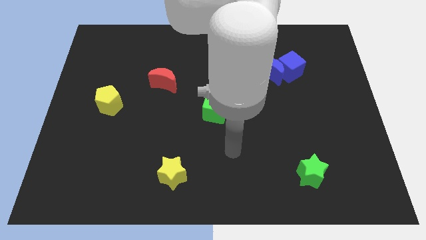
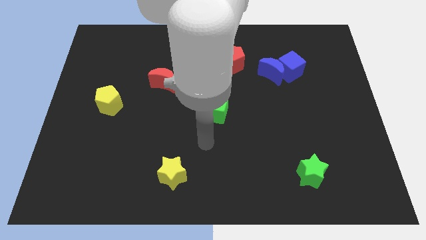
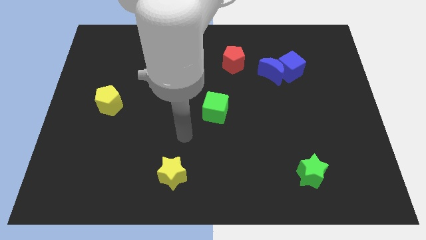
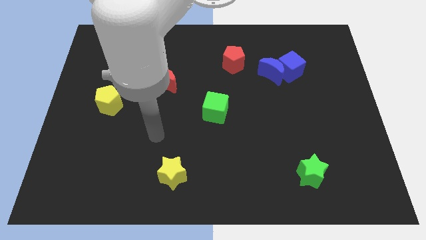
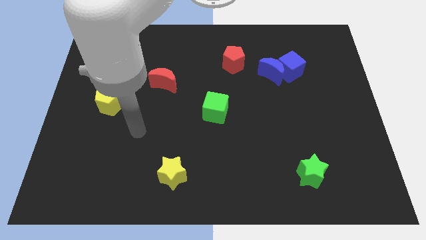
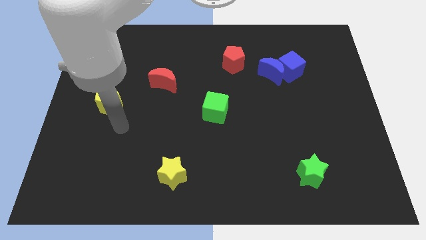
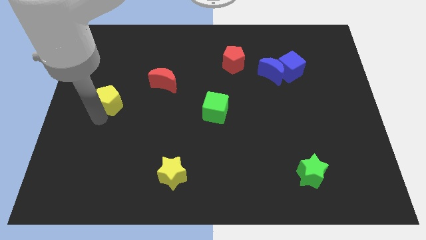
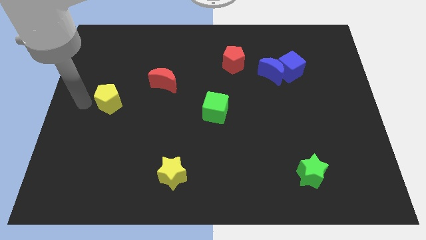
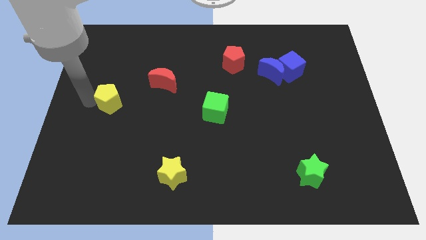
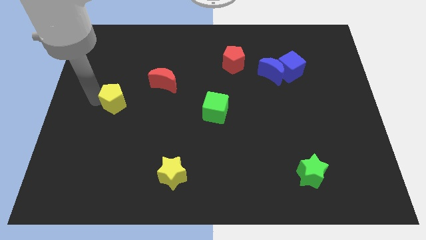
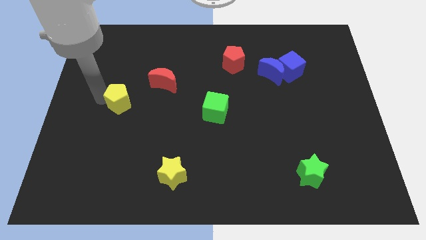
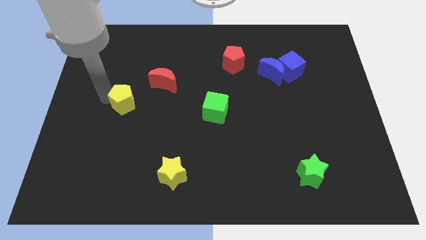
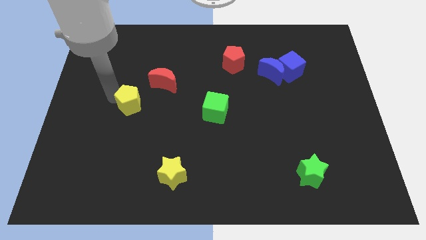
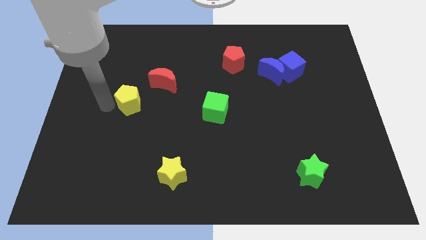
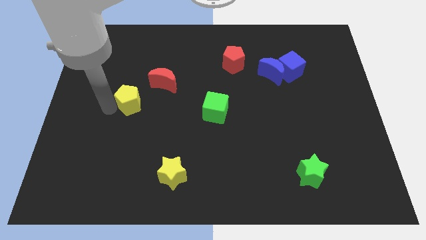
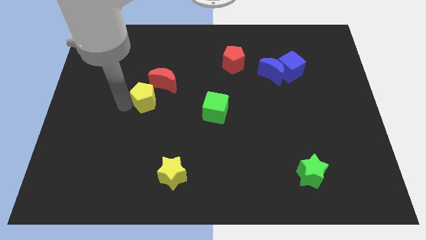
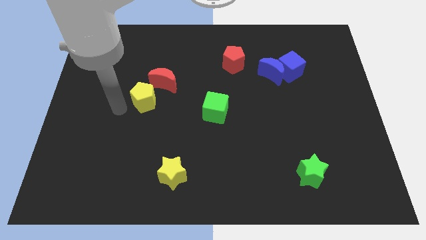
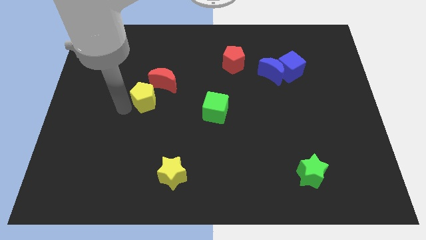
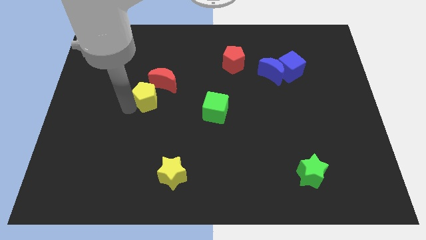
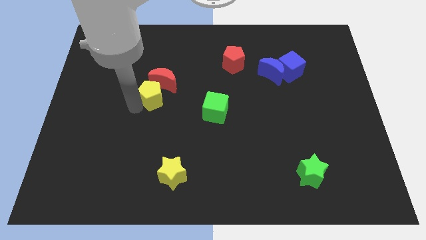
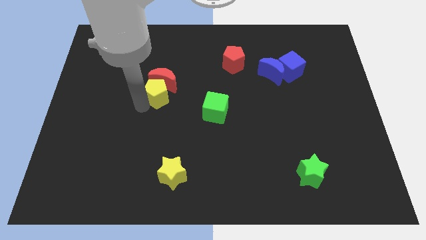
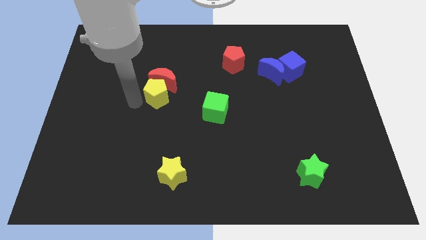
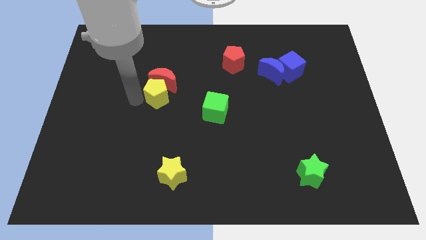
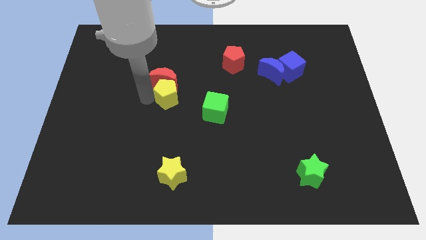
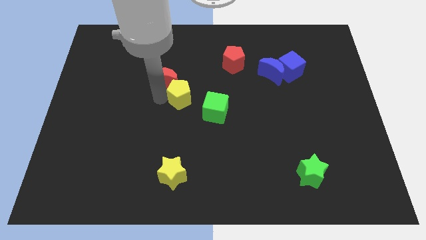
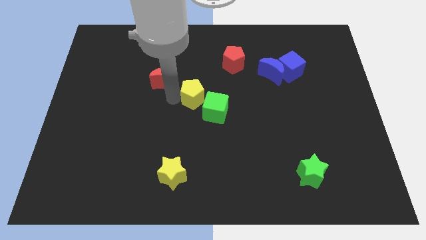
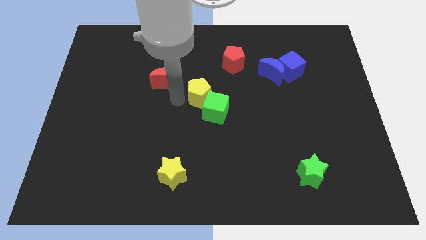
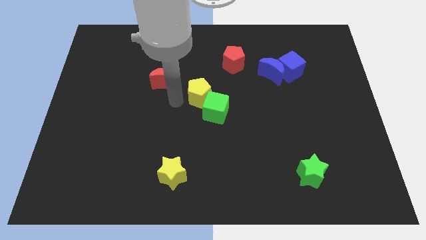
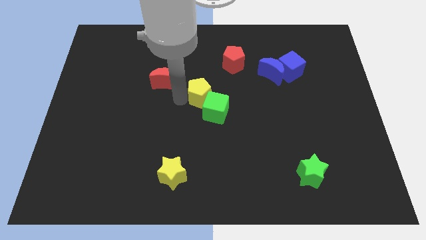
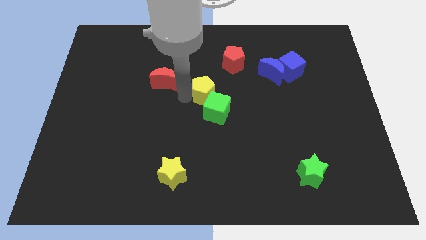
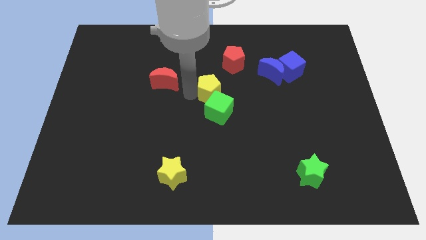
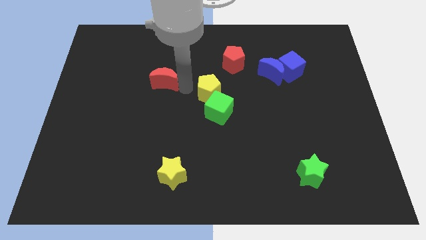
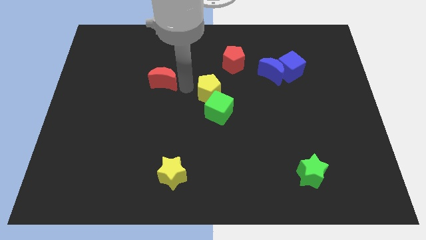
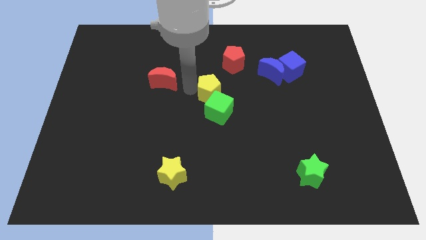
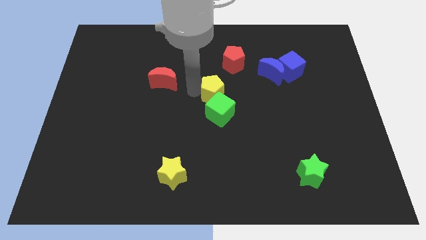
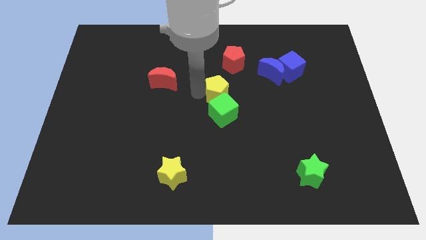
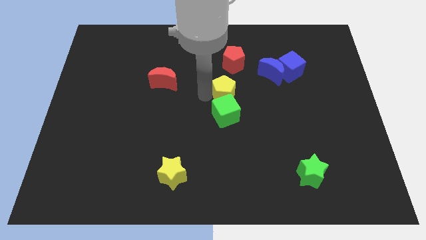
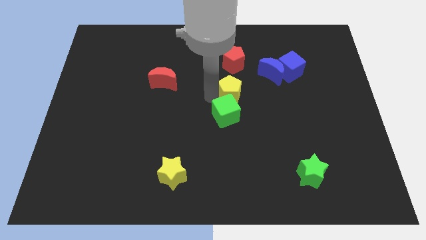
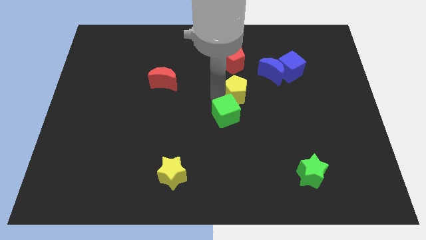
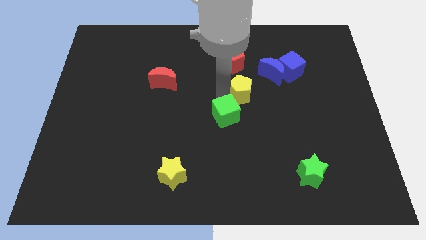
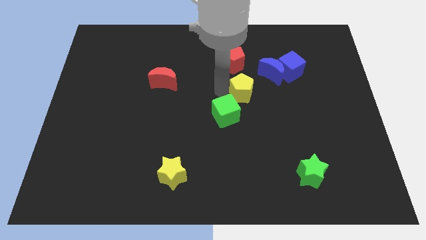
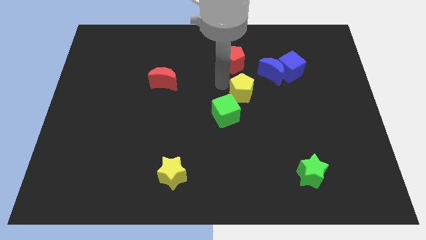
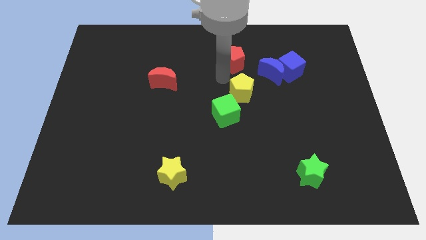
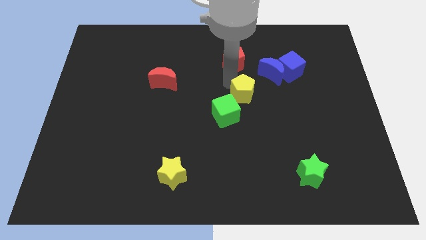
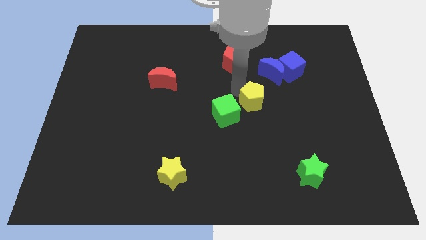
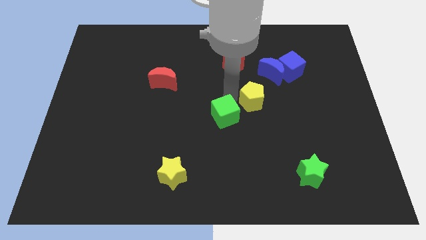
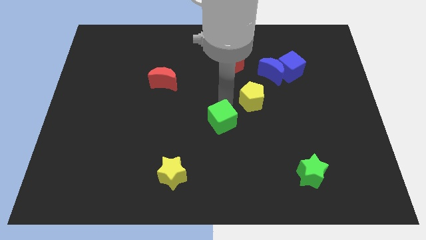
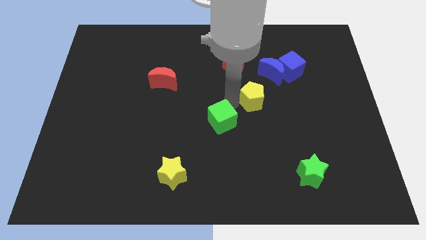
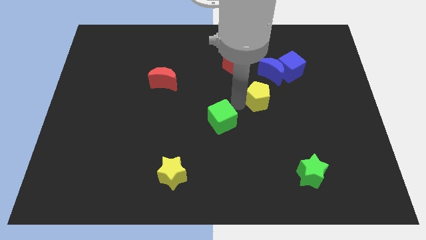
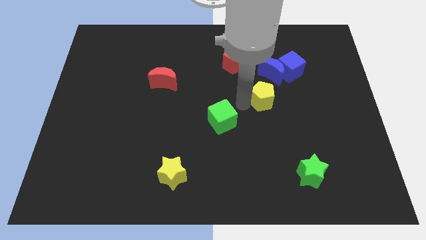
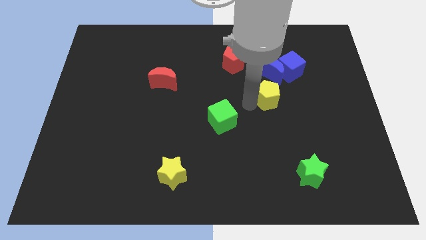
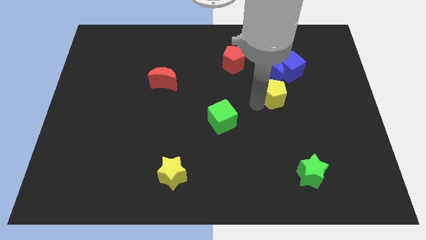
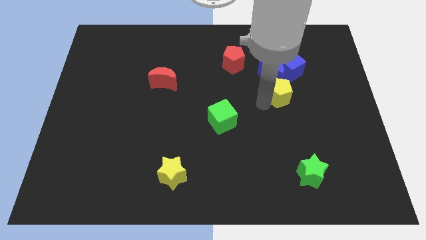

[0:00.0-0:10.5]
put the yellow pentagon diagonally down and to the right of the blue moon

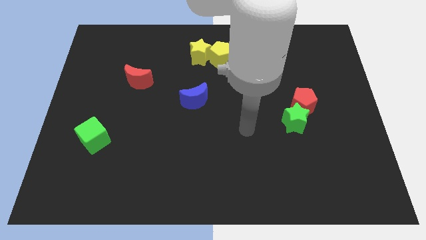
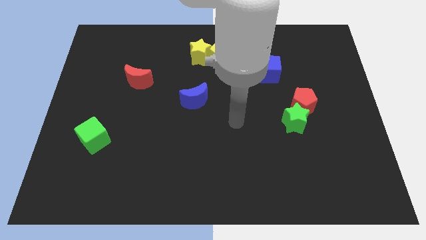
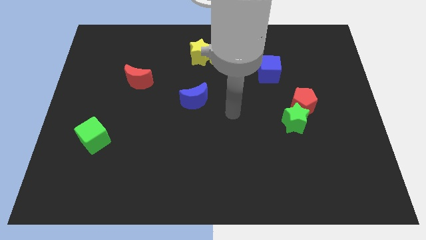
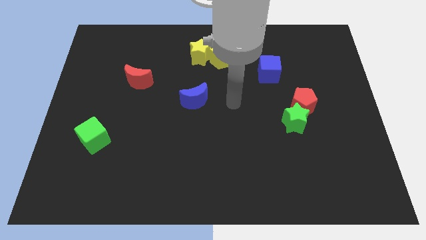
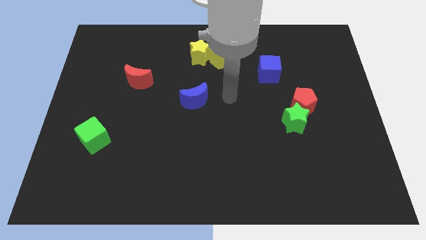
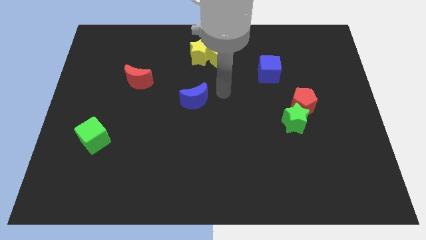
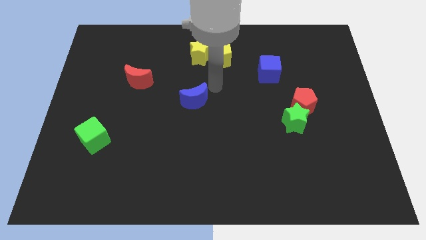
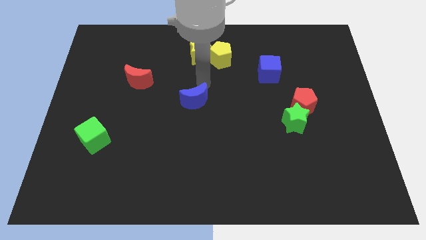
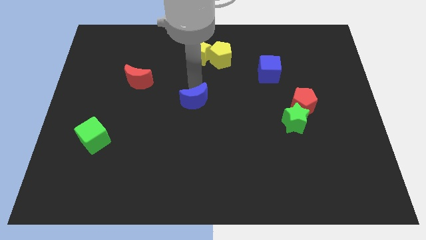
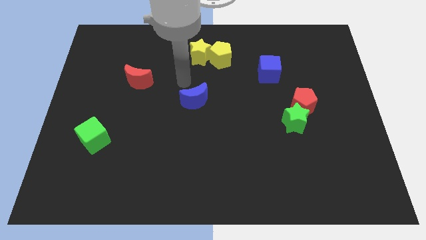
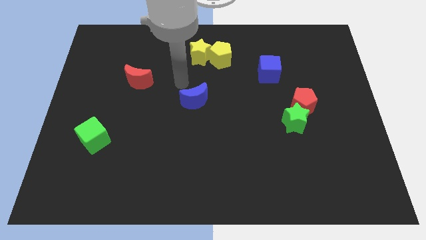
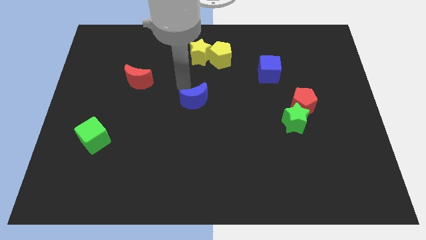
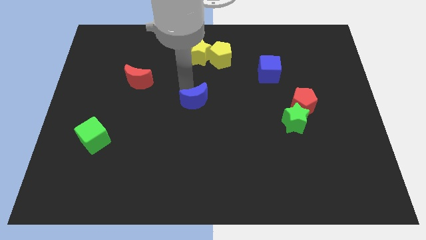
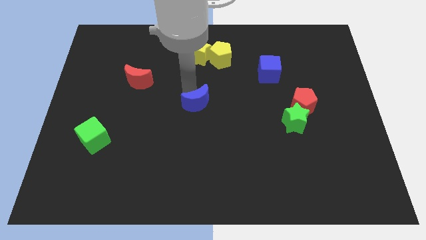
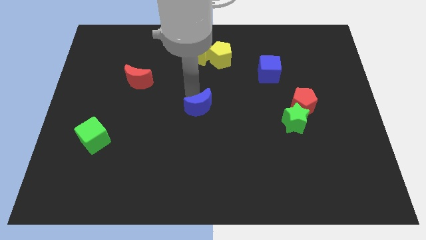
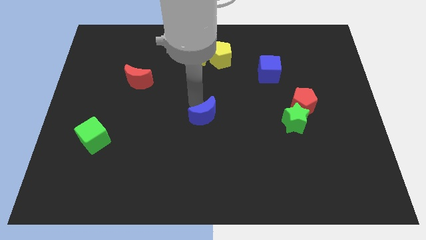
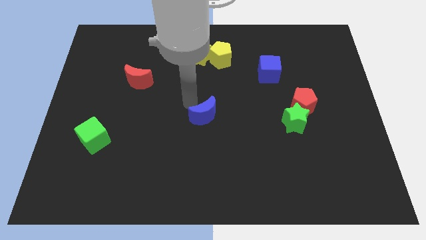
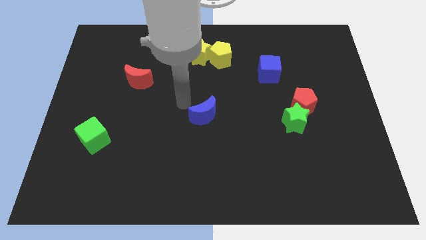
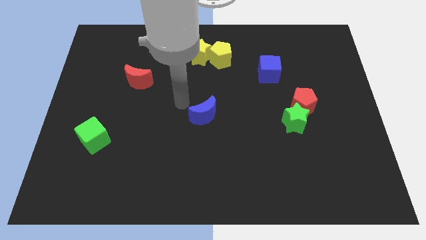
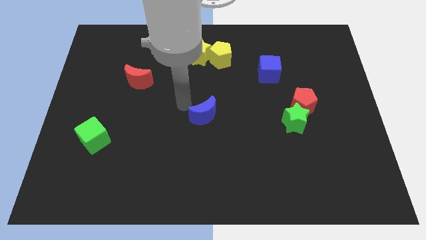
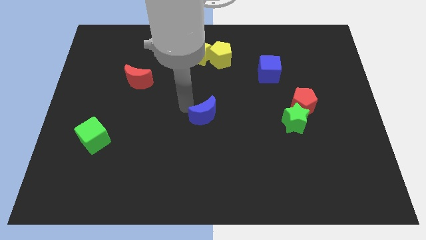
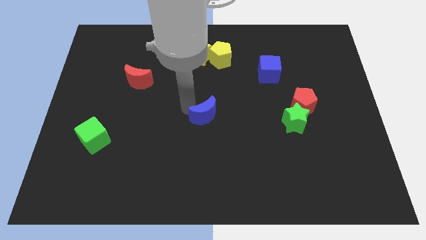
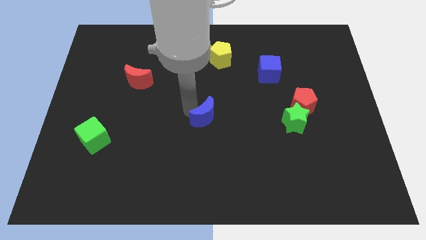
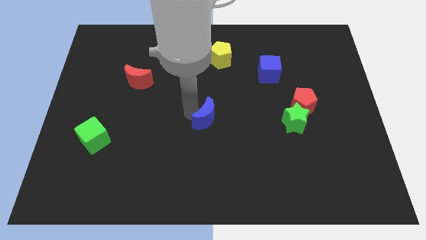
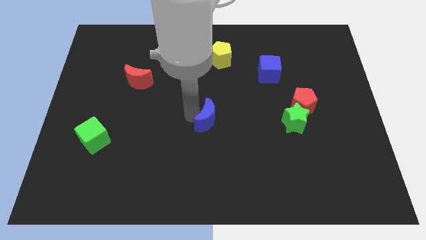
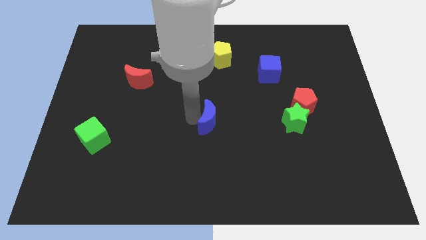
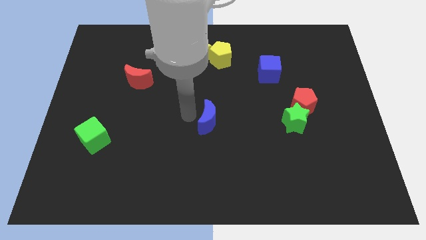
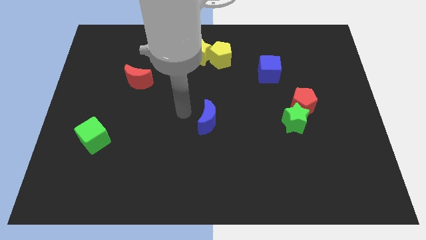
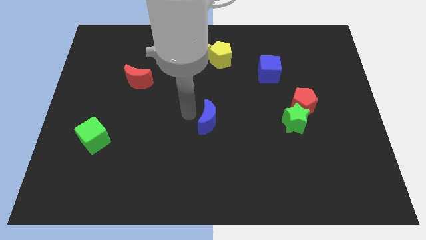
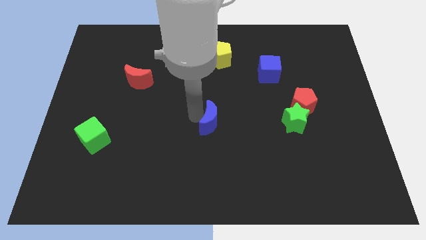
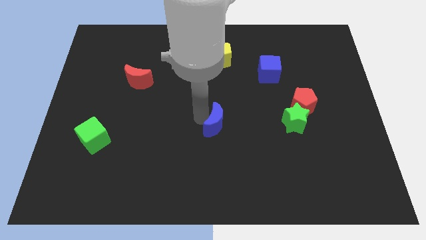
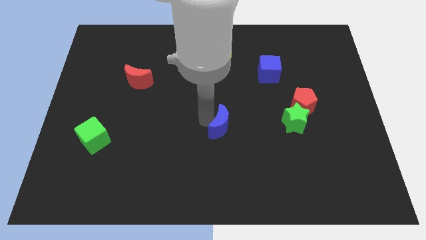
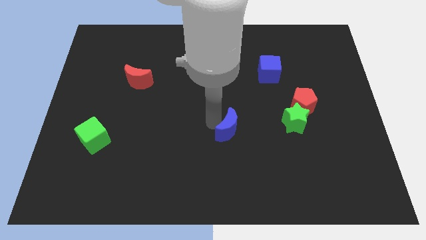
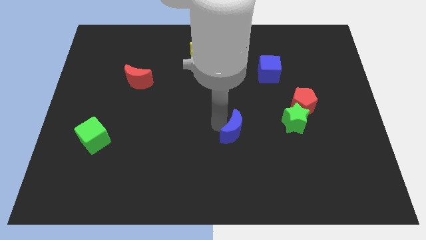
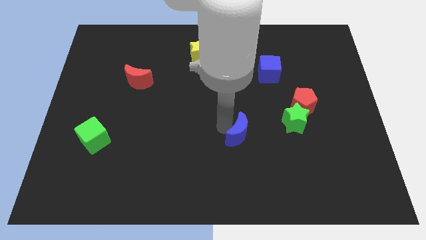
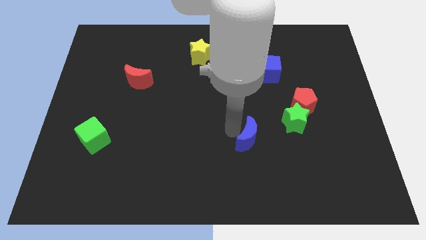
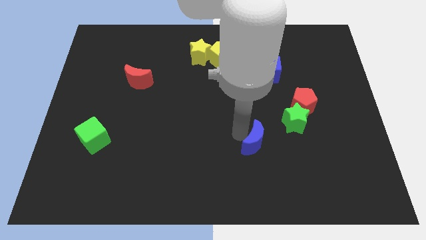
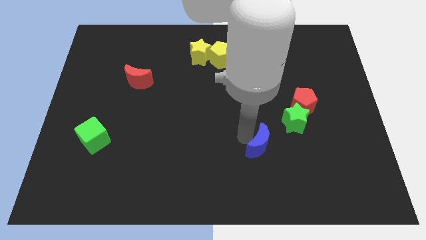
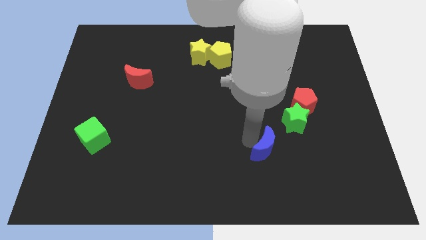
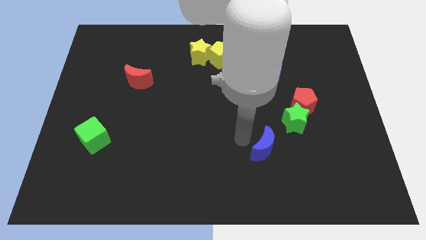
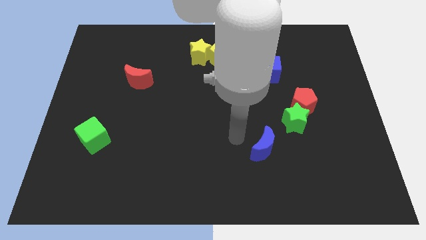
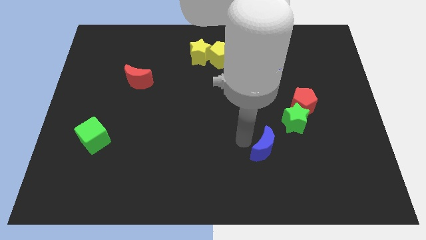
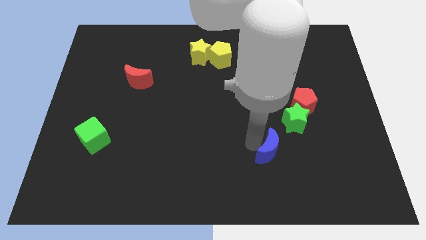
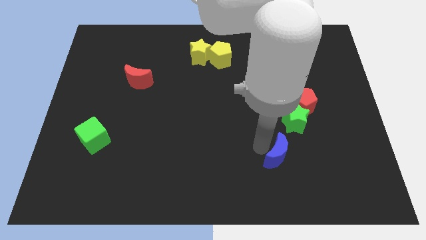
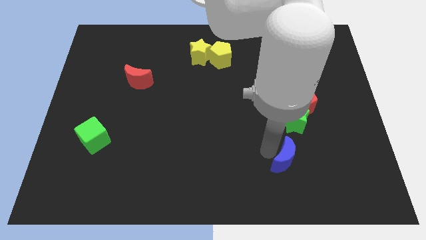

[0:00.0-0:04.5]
put the blue moon to the bottom of the green star
